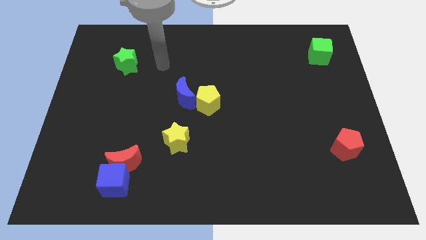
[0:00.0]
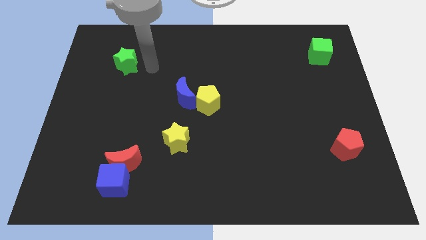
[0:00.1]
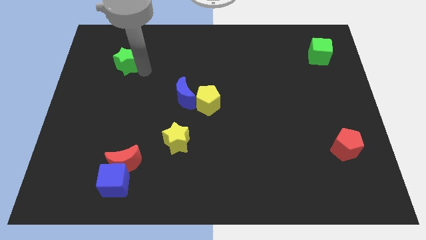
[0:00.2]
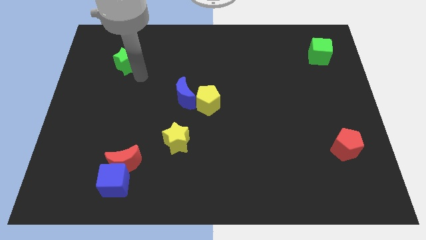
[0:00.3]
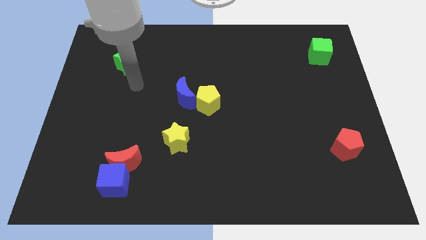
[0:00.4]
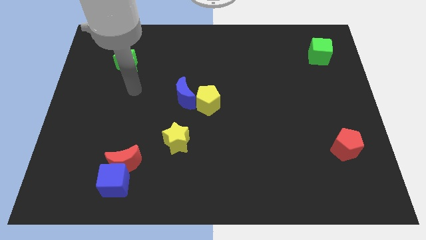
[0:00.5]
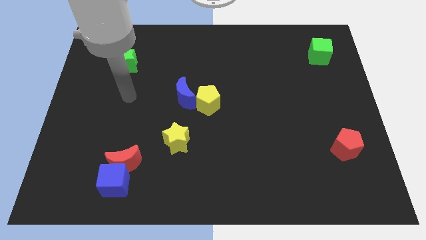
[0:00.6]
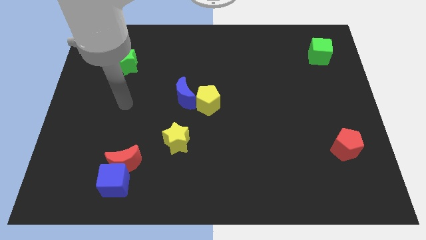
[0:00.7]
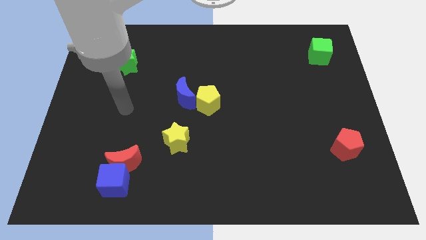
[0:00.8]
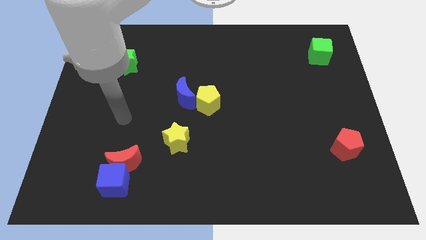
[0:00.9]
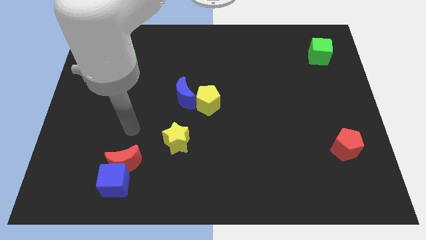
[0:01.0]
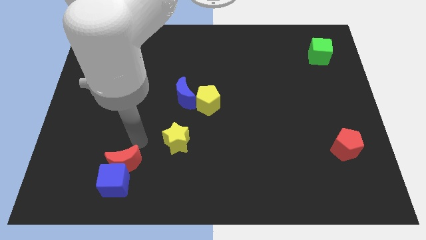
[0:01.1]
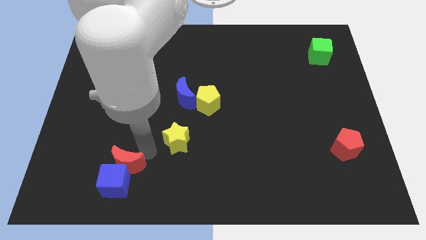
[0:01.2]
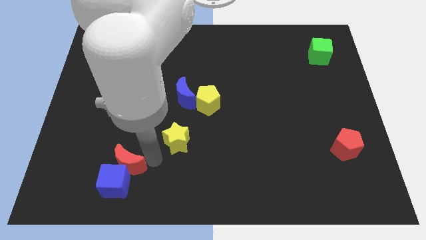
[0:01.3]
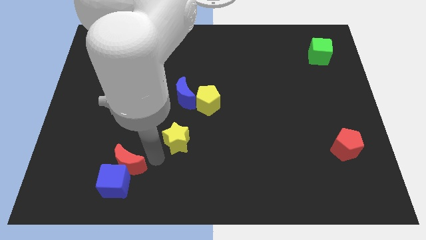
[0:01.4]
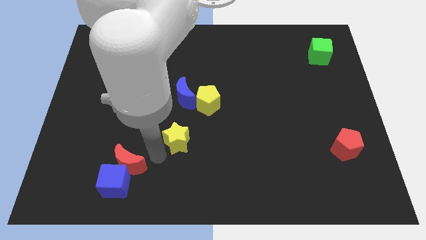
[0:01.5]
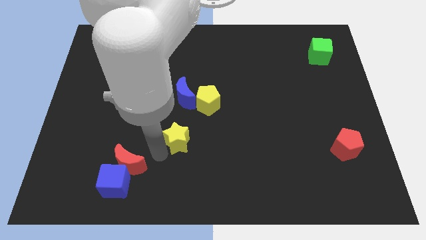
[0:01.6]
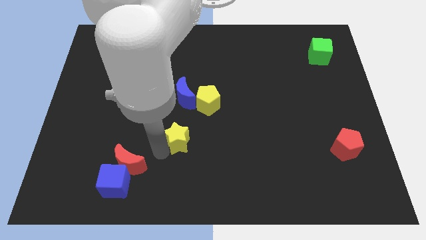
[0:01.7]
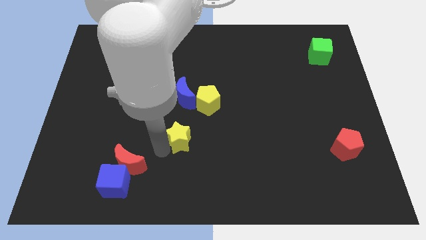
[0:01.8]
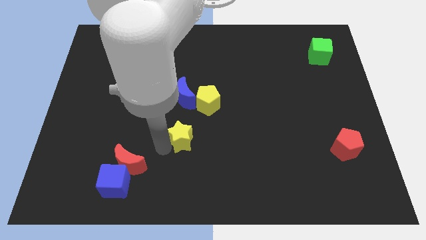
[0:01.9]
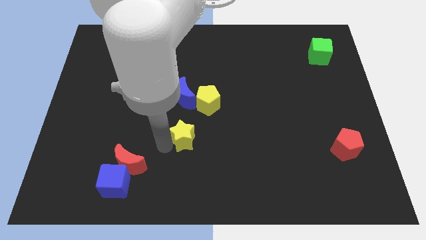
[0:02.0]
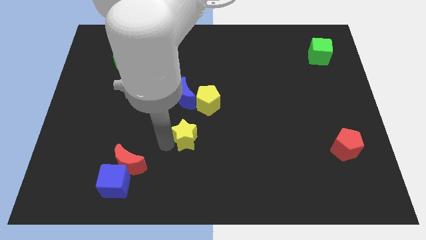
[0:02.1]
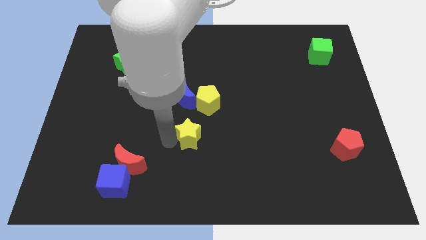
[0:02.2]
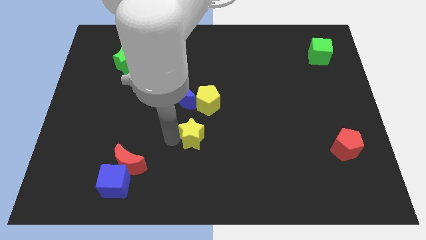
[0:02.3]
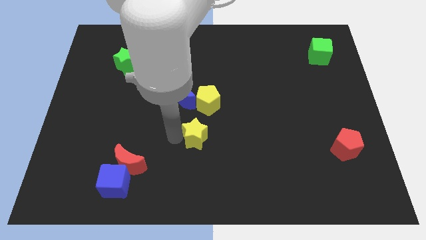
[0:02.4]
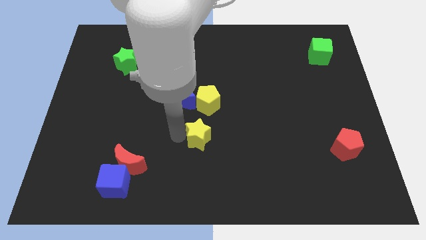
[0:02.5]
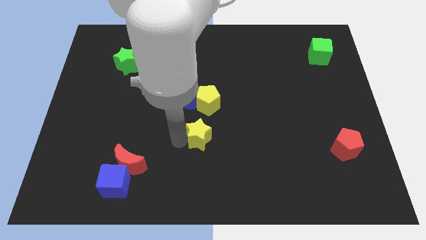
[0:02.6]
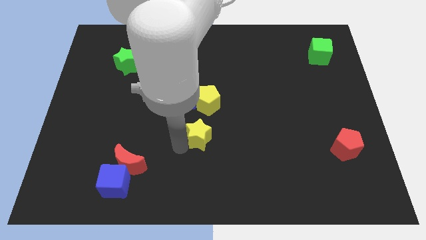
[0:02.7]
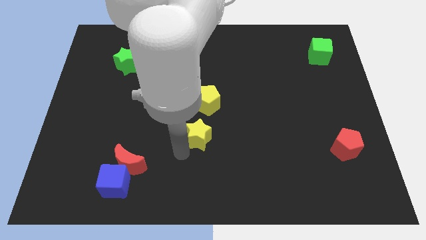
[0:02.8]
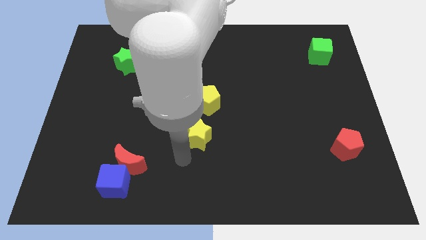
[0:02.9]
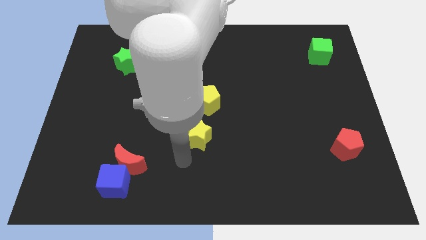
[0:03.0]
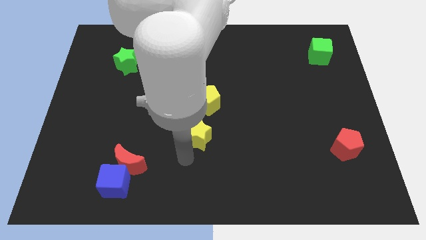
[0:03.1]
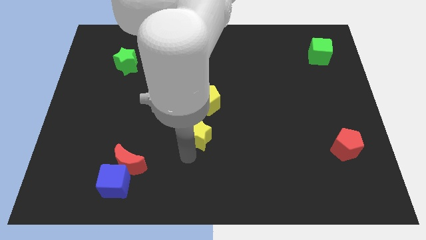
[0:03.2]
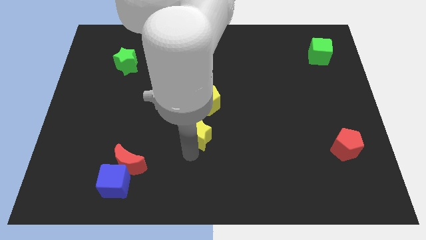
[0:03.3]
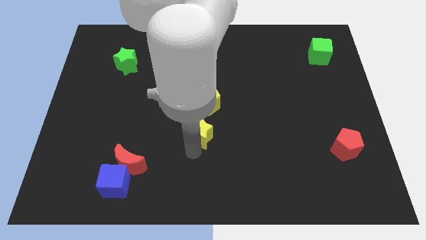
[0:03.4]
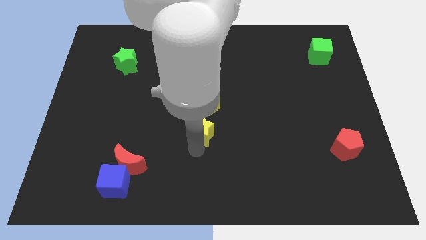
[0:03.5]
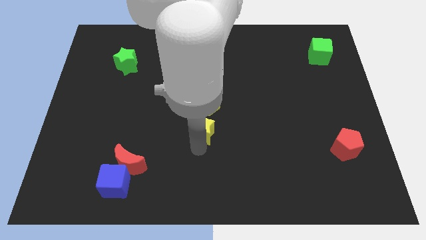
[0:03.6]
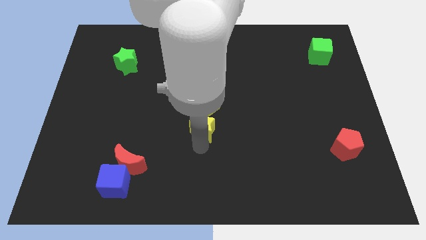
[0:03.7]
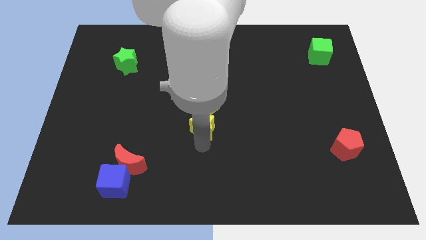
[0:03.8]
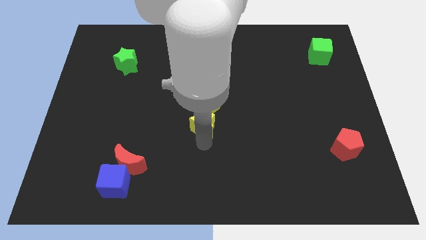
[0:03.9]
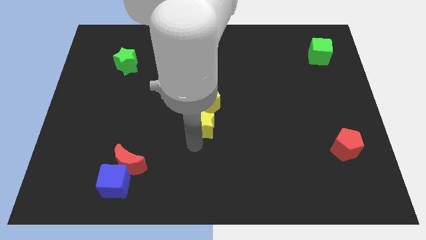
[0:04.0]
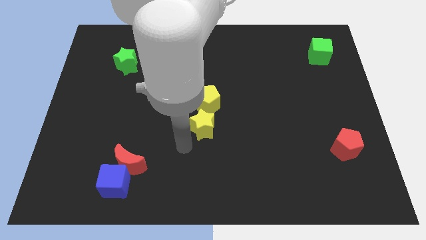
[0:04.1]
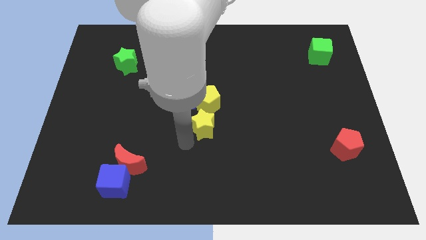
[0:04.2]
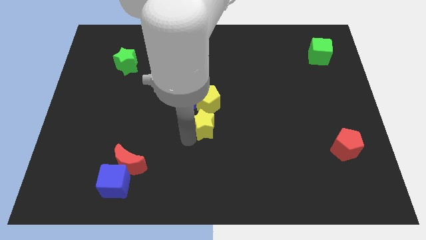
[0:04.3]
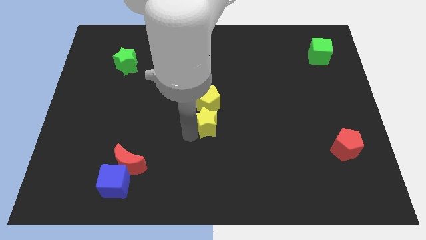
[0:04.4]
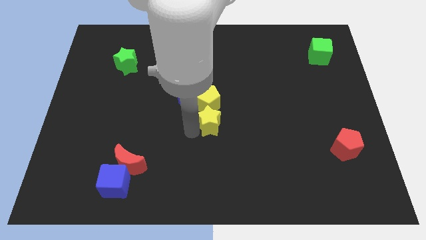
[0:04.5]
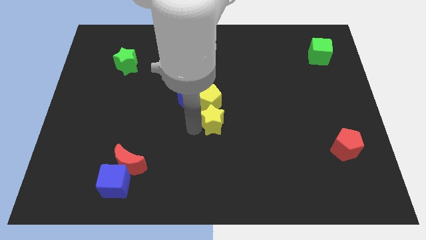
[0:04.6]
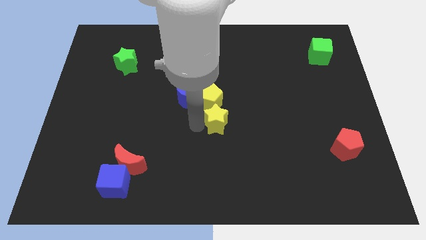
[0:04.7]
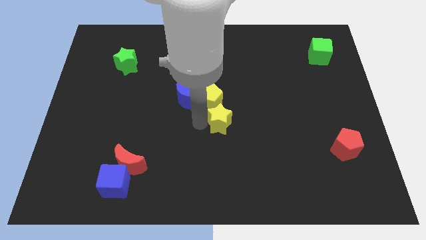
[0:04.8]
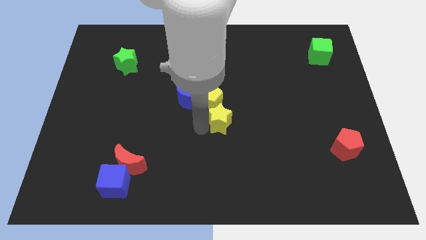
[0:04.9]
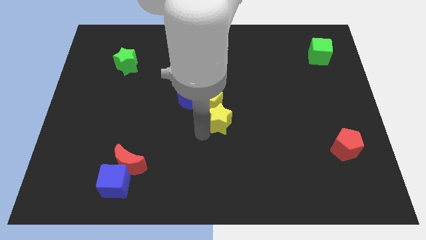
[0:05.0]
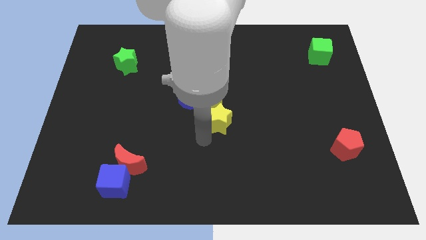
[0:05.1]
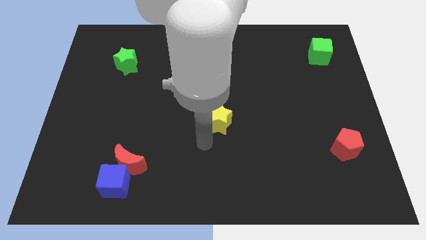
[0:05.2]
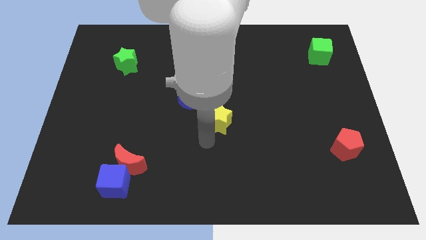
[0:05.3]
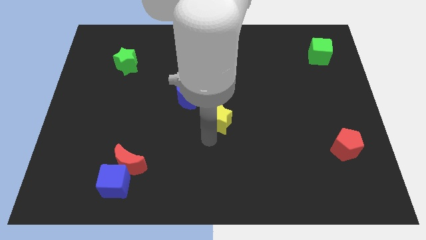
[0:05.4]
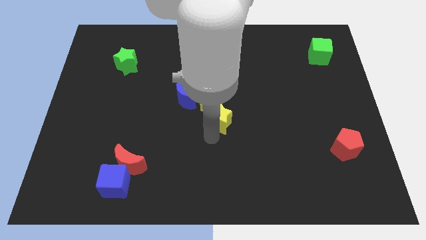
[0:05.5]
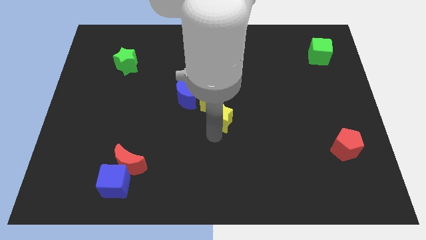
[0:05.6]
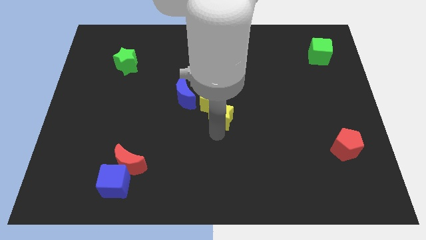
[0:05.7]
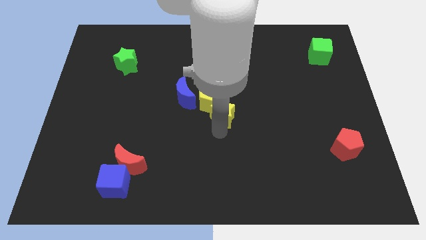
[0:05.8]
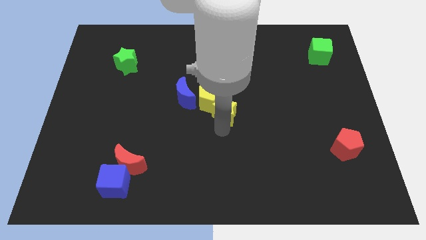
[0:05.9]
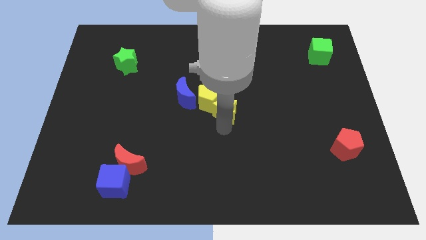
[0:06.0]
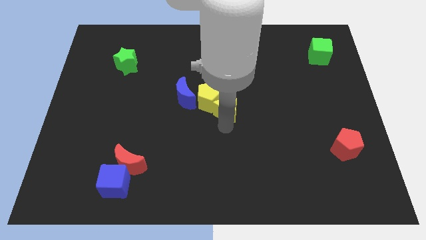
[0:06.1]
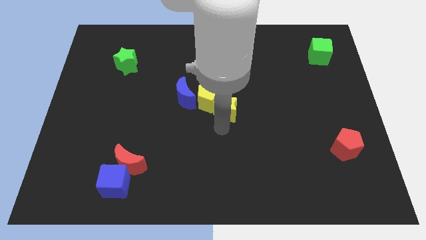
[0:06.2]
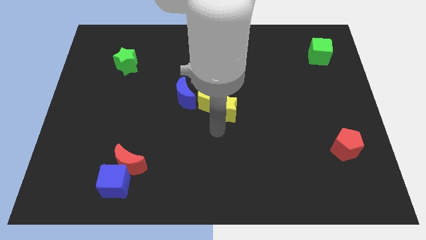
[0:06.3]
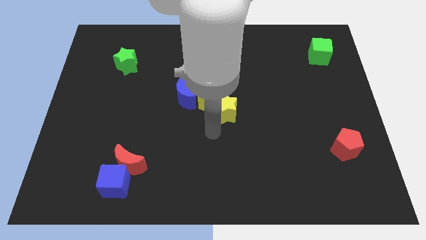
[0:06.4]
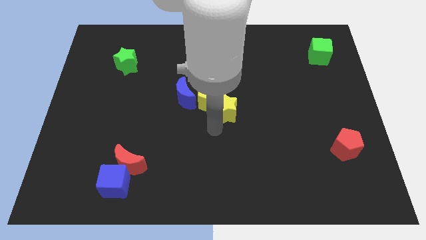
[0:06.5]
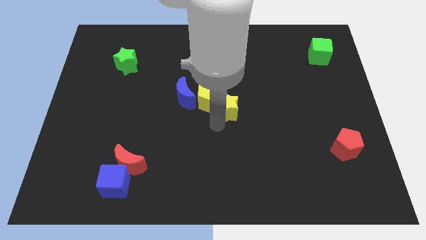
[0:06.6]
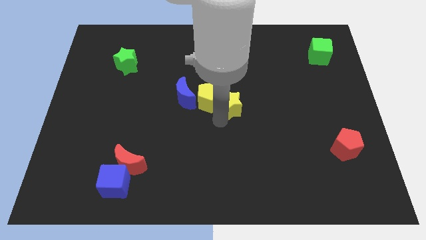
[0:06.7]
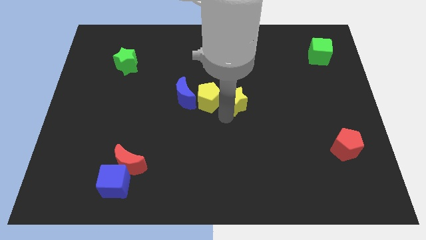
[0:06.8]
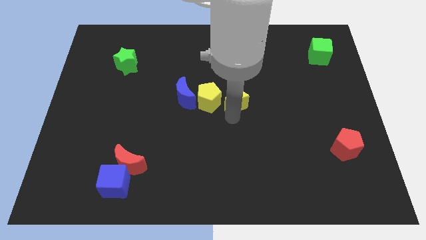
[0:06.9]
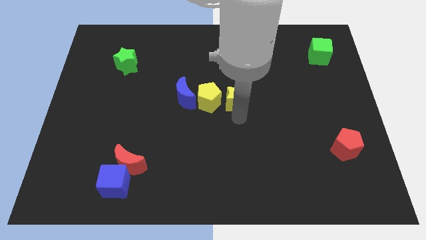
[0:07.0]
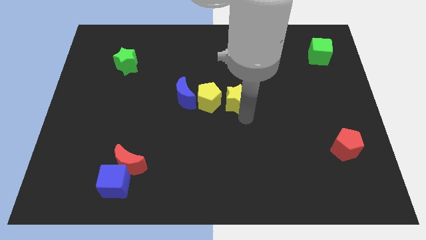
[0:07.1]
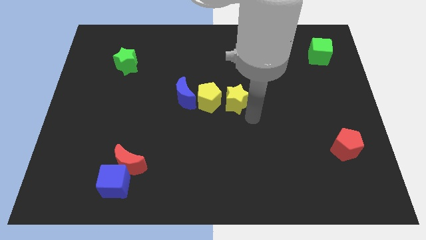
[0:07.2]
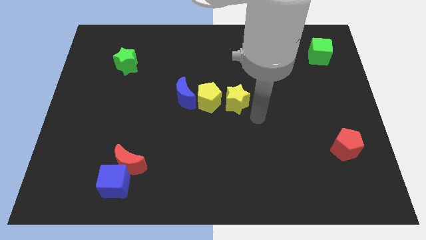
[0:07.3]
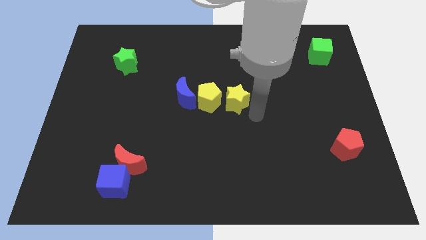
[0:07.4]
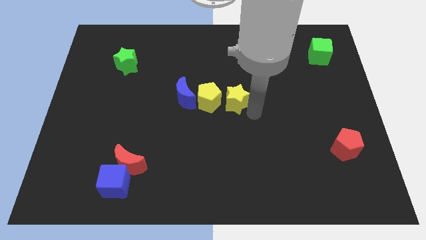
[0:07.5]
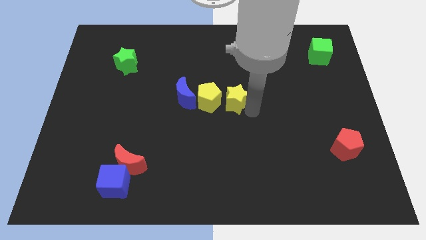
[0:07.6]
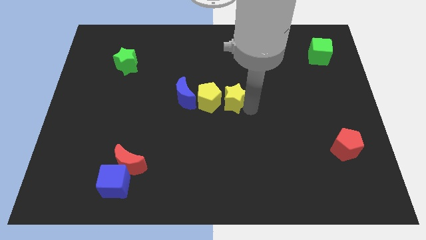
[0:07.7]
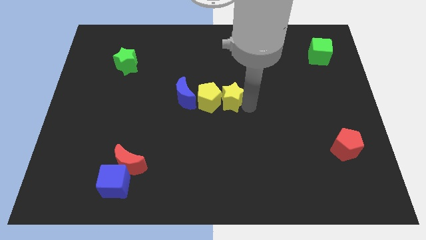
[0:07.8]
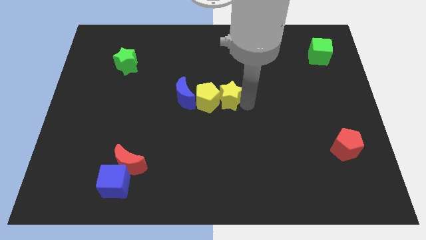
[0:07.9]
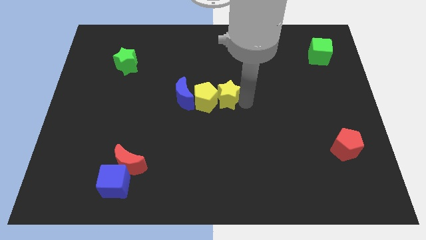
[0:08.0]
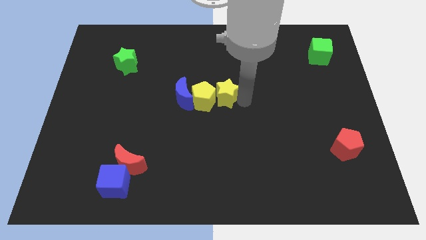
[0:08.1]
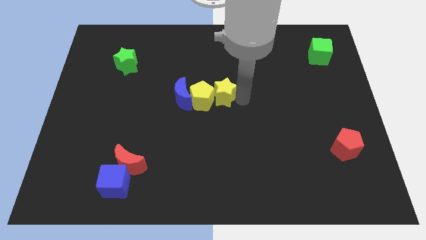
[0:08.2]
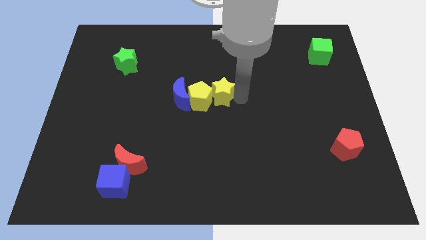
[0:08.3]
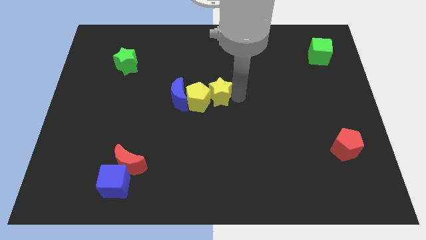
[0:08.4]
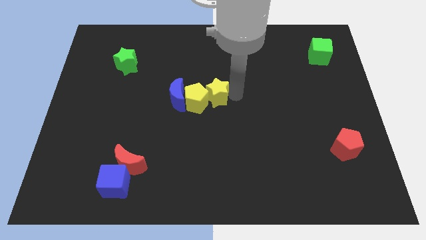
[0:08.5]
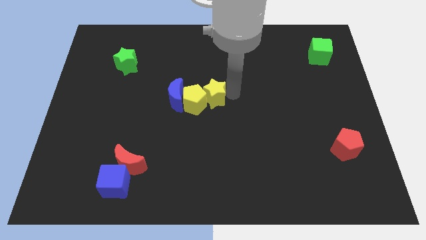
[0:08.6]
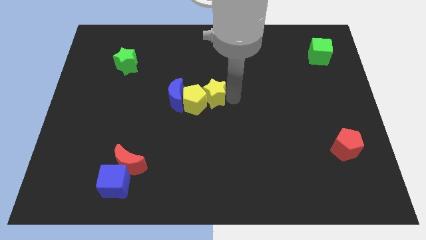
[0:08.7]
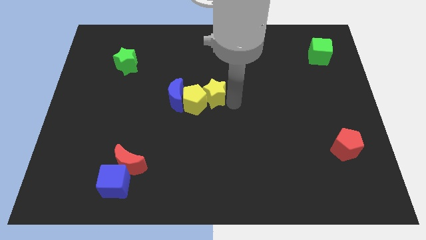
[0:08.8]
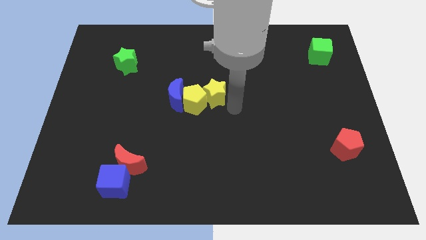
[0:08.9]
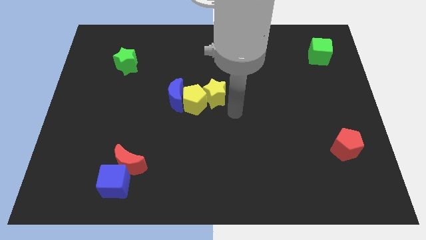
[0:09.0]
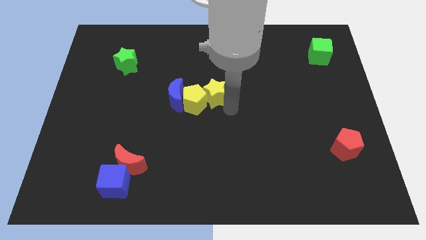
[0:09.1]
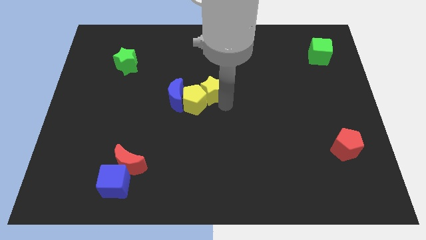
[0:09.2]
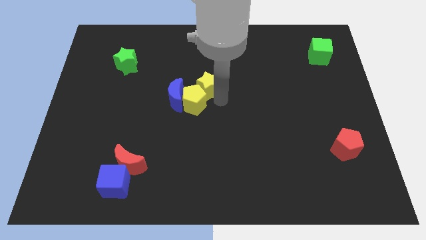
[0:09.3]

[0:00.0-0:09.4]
move the yellow star to the top right side of the blue moon
